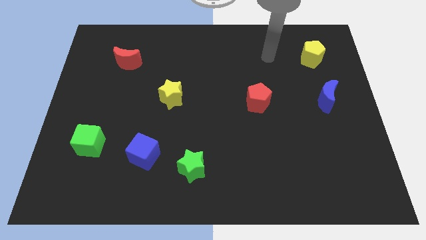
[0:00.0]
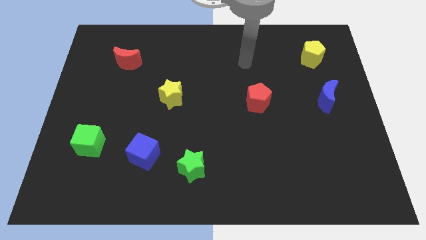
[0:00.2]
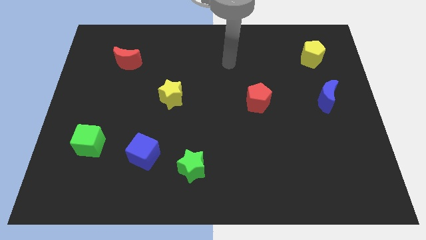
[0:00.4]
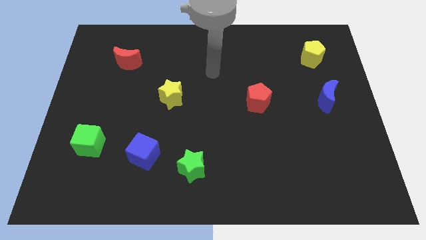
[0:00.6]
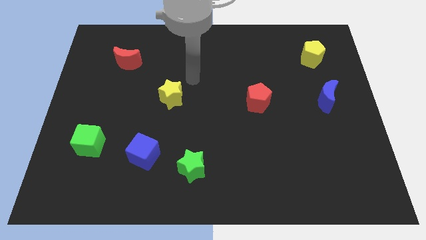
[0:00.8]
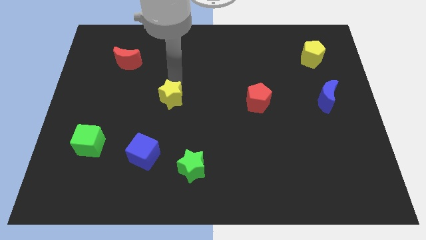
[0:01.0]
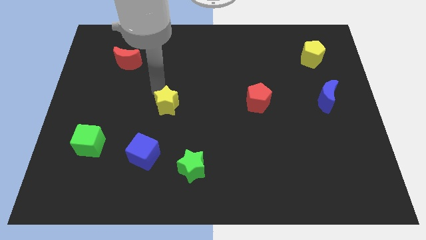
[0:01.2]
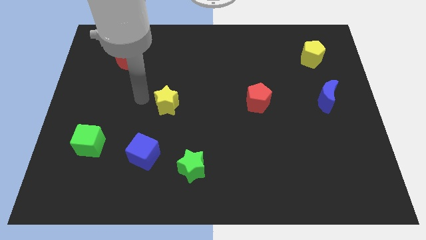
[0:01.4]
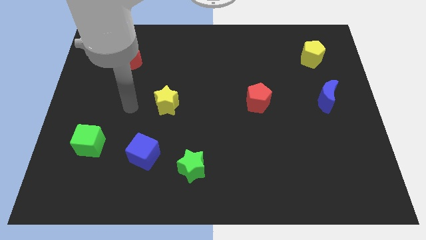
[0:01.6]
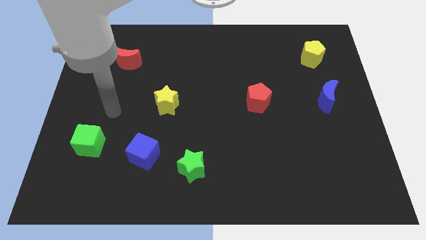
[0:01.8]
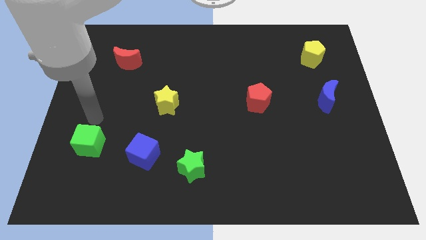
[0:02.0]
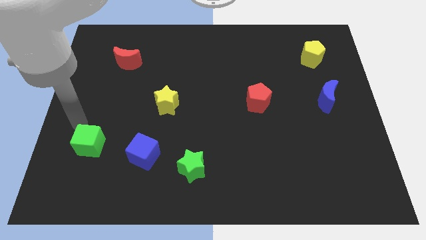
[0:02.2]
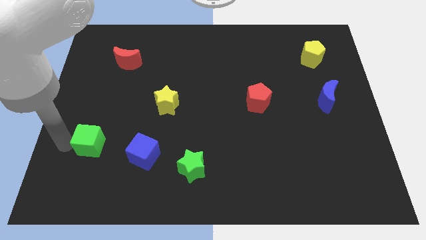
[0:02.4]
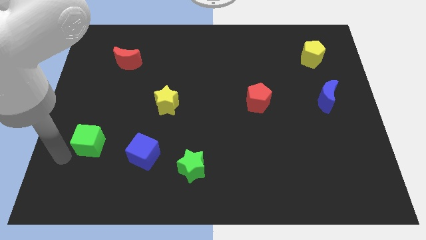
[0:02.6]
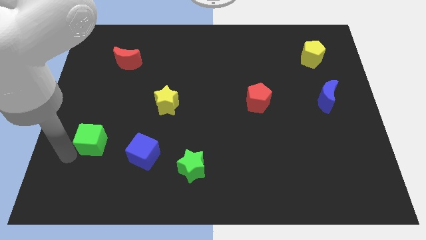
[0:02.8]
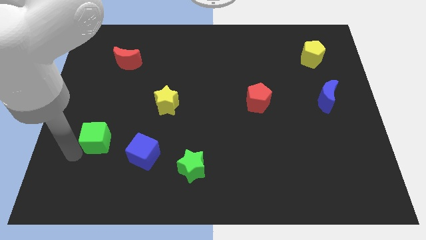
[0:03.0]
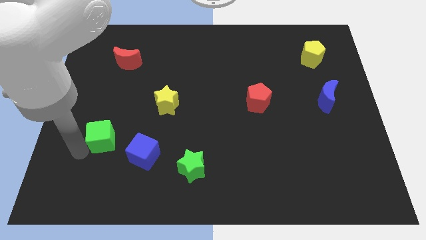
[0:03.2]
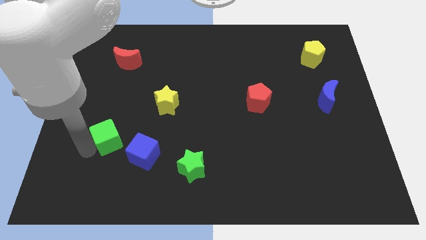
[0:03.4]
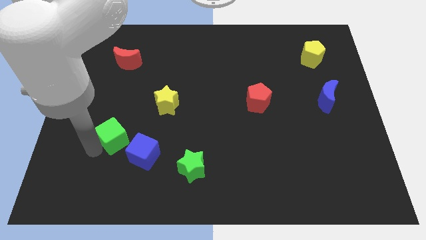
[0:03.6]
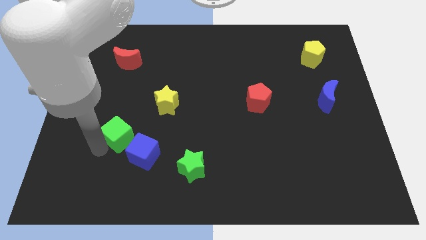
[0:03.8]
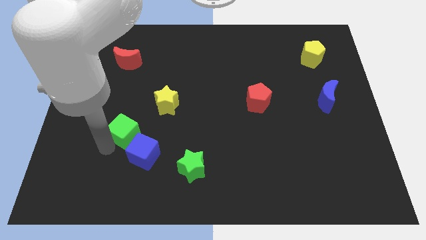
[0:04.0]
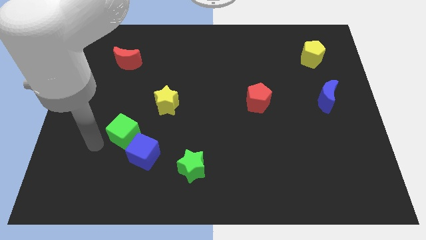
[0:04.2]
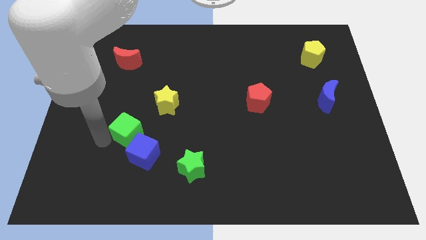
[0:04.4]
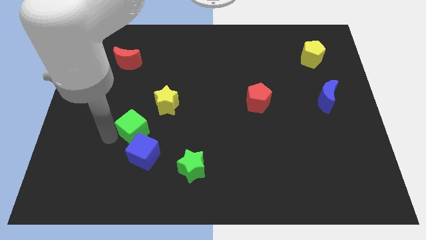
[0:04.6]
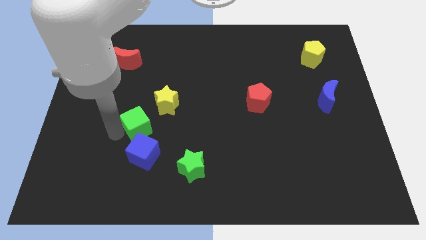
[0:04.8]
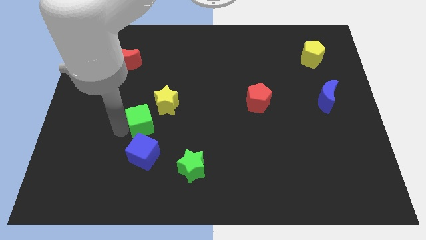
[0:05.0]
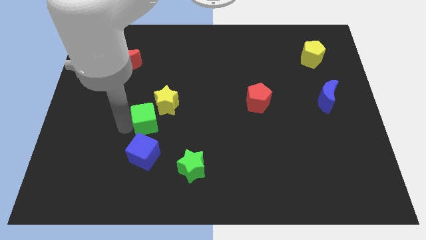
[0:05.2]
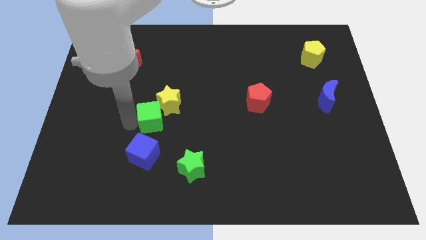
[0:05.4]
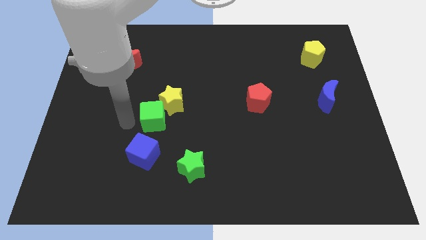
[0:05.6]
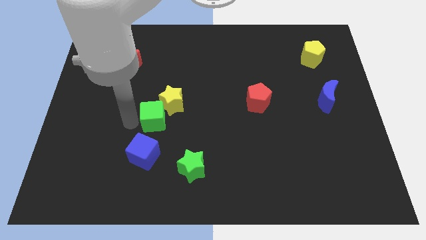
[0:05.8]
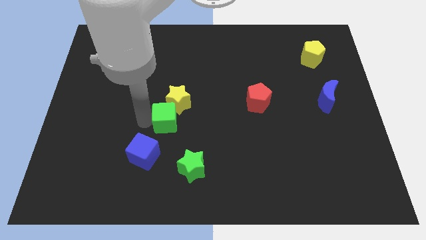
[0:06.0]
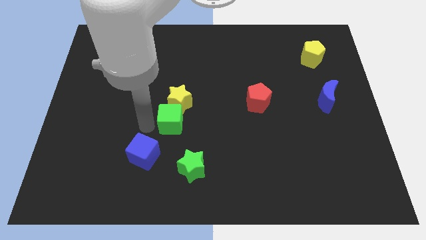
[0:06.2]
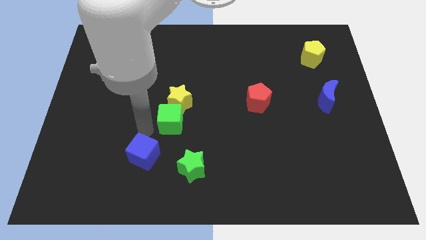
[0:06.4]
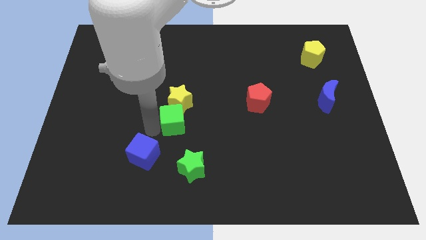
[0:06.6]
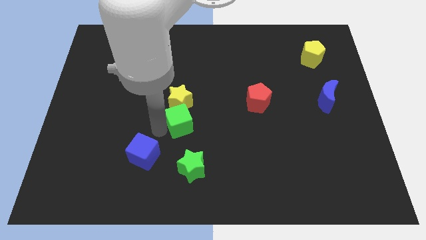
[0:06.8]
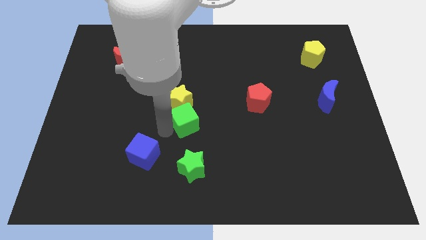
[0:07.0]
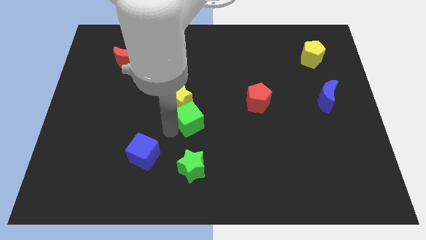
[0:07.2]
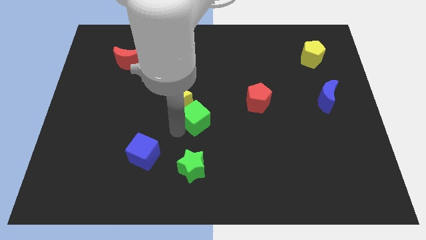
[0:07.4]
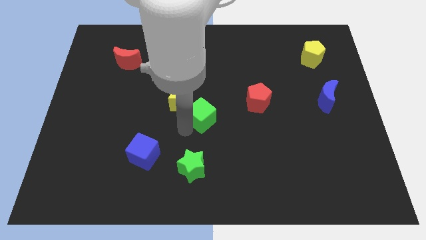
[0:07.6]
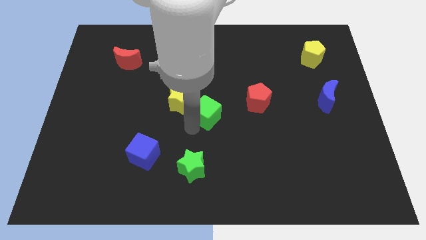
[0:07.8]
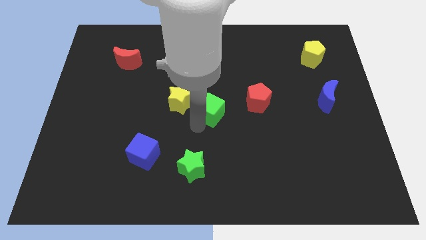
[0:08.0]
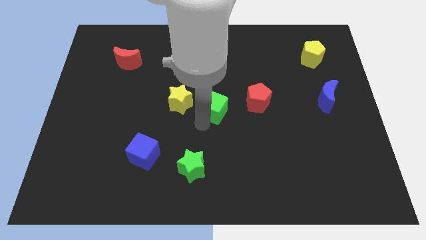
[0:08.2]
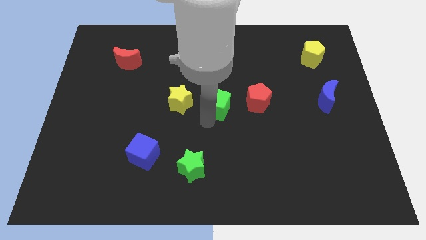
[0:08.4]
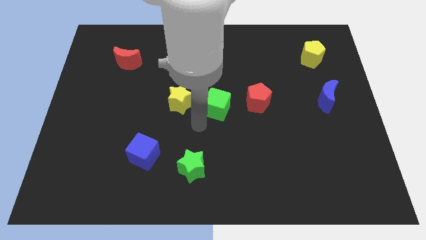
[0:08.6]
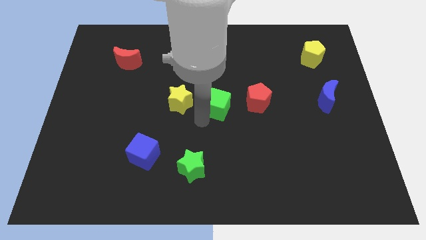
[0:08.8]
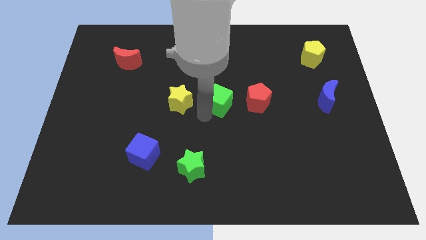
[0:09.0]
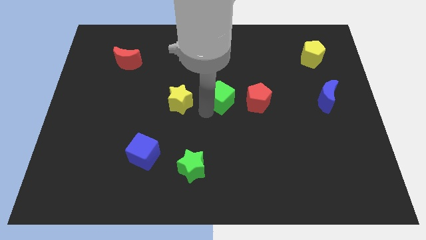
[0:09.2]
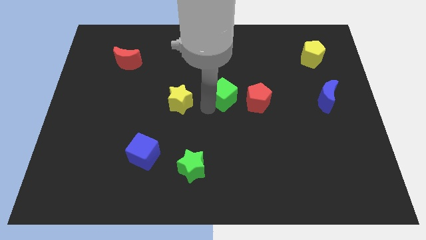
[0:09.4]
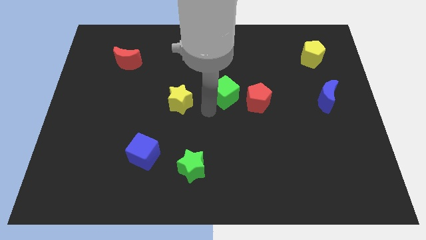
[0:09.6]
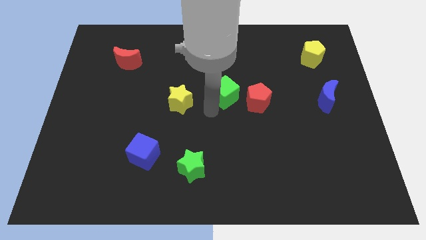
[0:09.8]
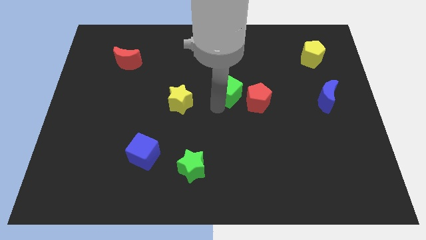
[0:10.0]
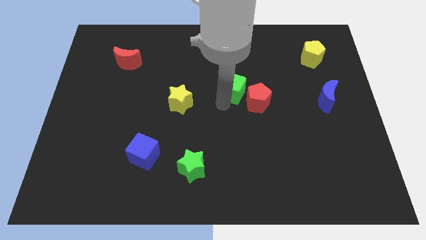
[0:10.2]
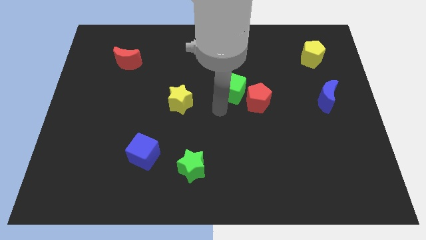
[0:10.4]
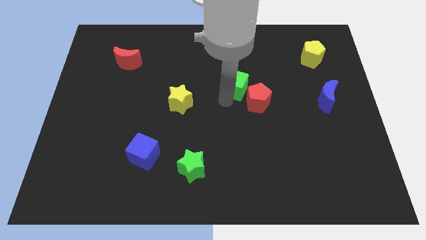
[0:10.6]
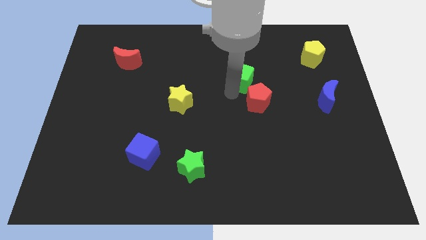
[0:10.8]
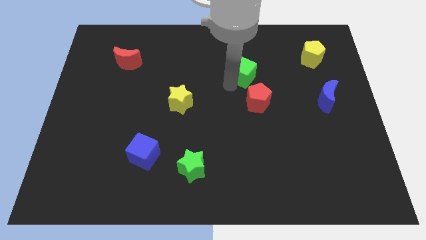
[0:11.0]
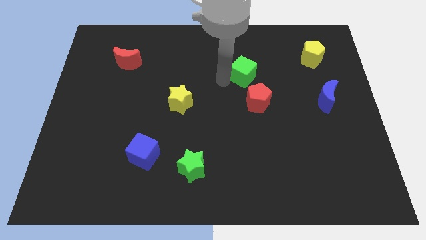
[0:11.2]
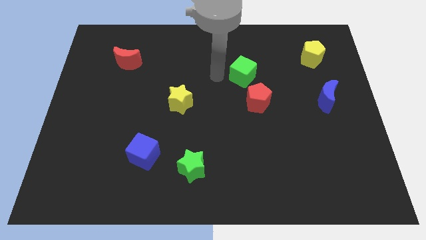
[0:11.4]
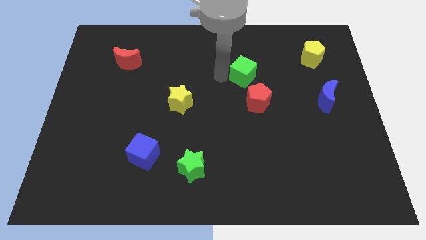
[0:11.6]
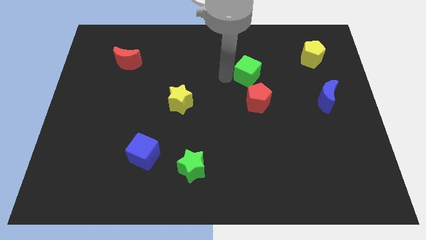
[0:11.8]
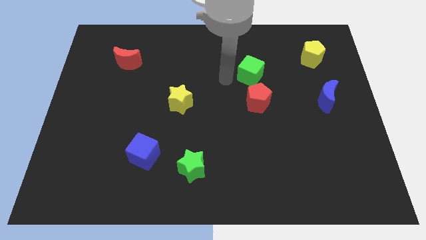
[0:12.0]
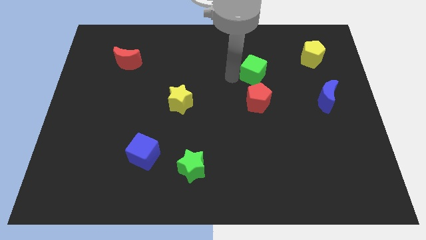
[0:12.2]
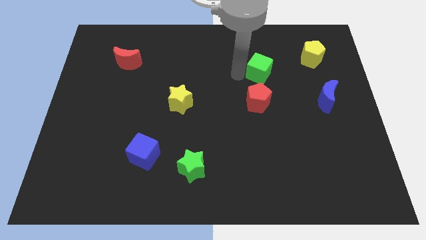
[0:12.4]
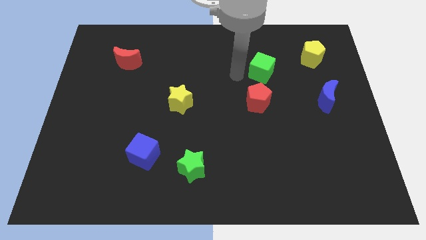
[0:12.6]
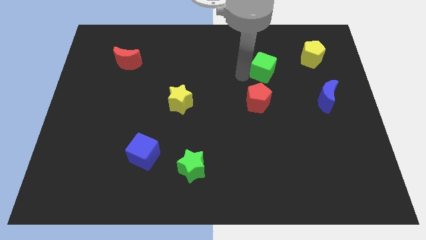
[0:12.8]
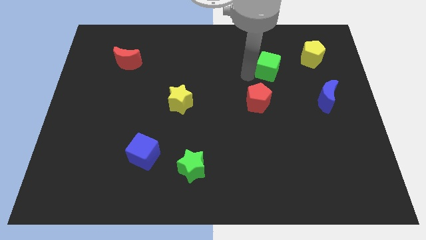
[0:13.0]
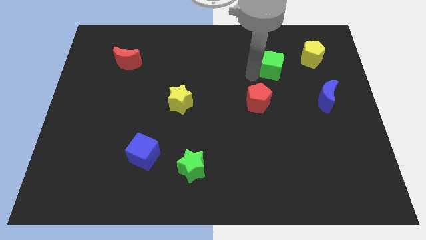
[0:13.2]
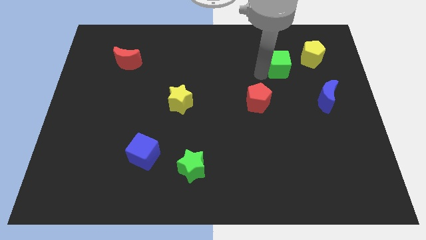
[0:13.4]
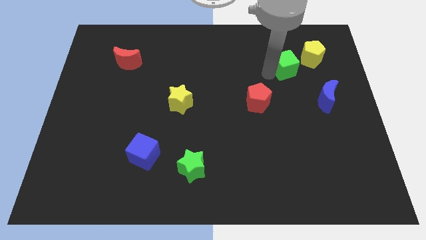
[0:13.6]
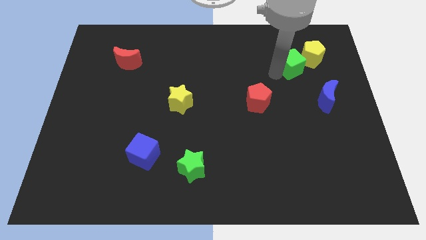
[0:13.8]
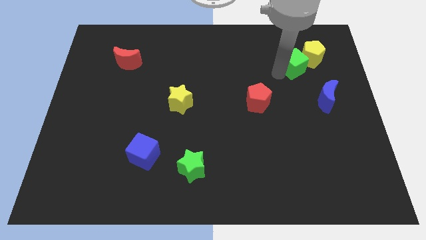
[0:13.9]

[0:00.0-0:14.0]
push the green cube towards the yellow pentagon
